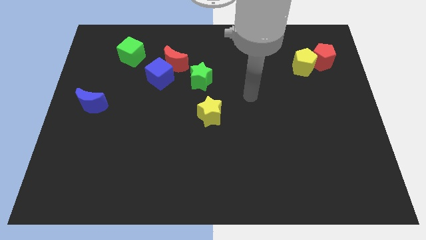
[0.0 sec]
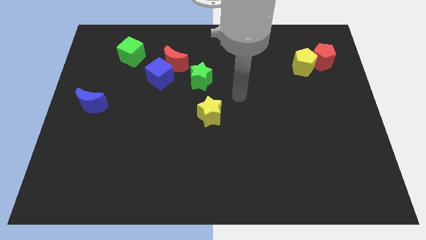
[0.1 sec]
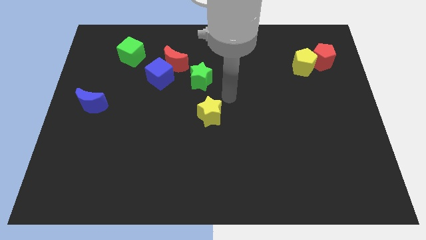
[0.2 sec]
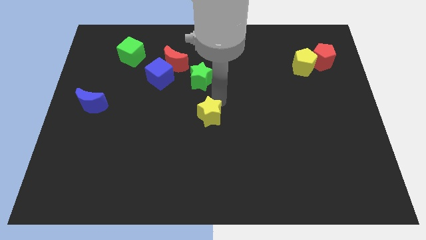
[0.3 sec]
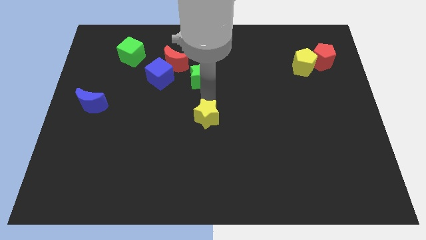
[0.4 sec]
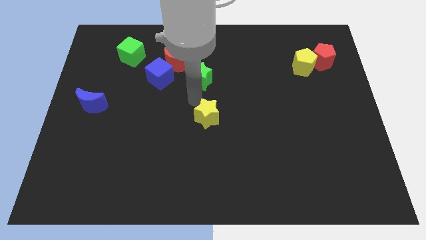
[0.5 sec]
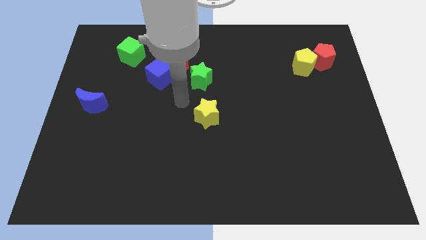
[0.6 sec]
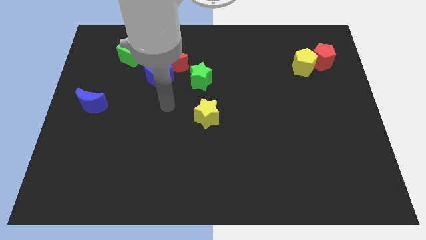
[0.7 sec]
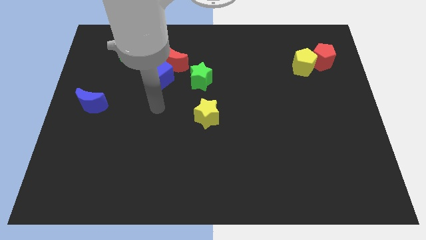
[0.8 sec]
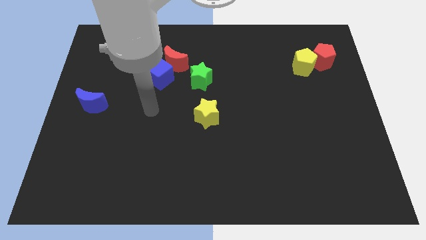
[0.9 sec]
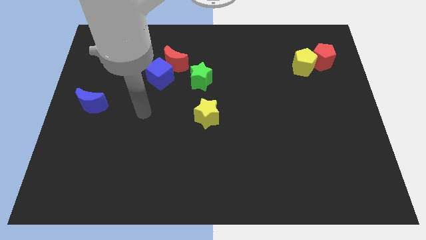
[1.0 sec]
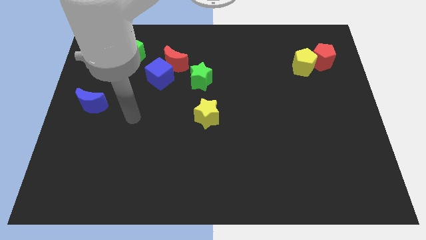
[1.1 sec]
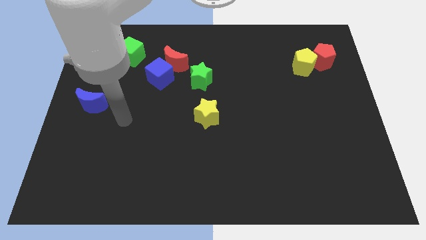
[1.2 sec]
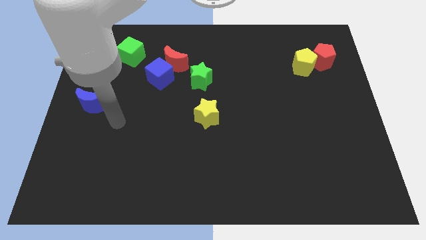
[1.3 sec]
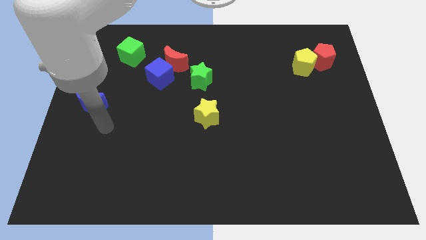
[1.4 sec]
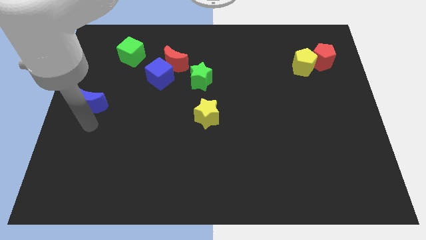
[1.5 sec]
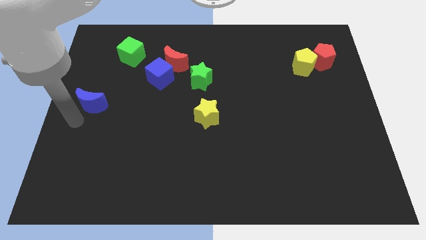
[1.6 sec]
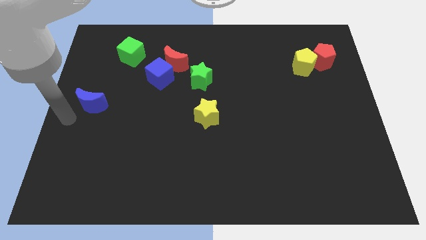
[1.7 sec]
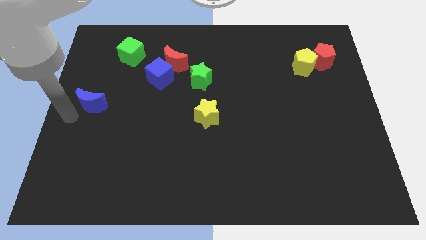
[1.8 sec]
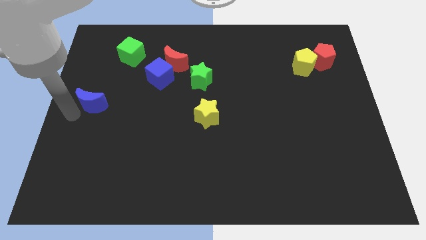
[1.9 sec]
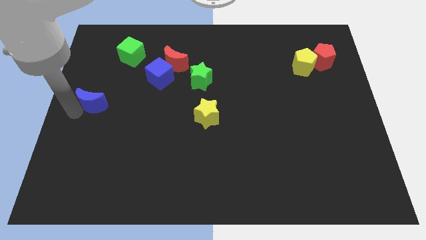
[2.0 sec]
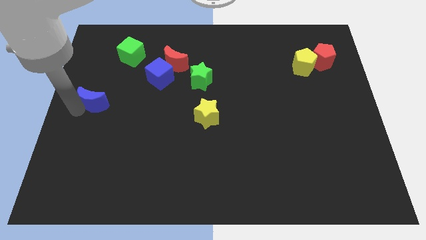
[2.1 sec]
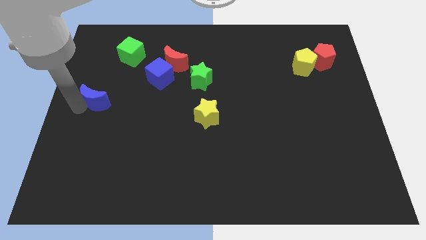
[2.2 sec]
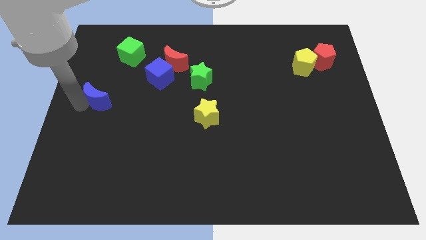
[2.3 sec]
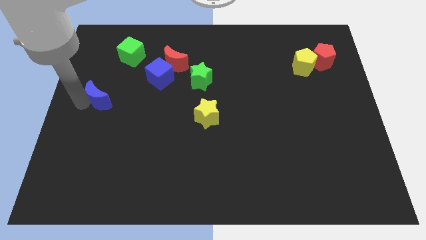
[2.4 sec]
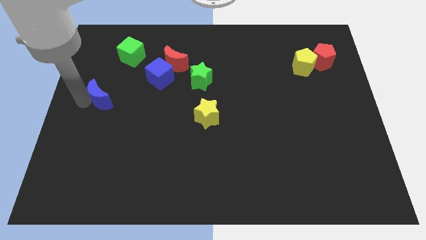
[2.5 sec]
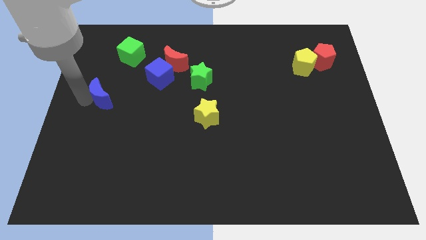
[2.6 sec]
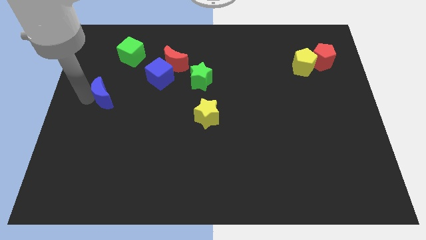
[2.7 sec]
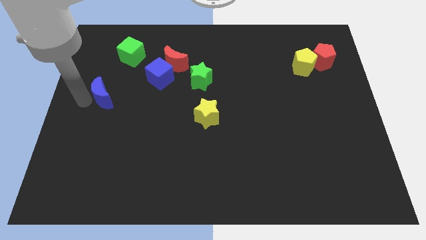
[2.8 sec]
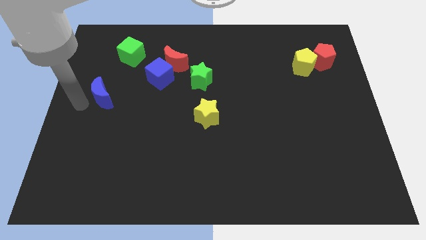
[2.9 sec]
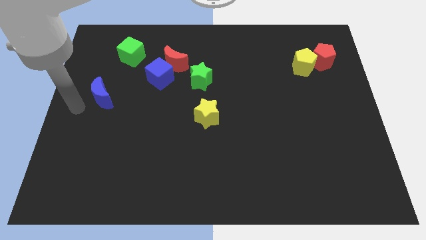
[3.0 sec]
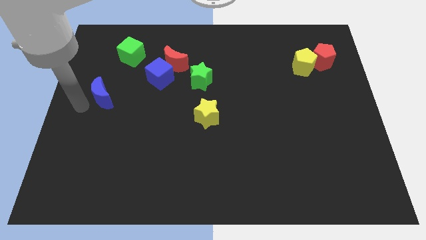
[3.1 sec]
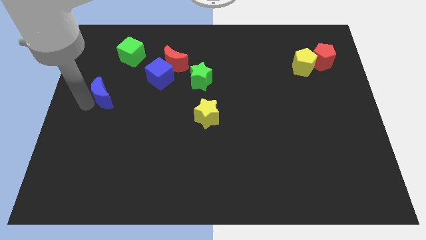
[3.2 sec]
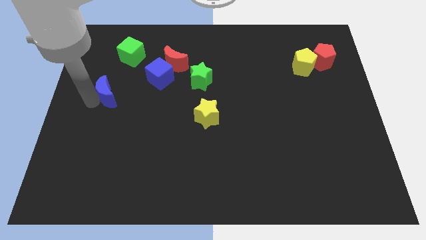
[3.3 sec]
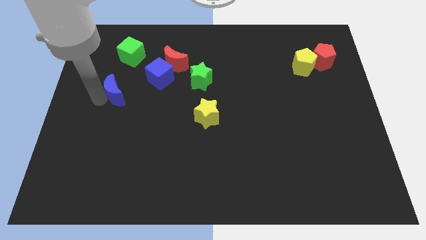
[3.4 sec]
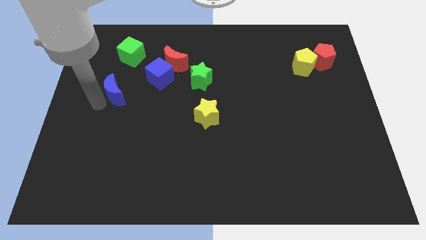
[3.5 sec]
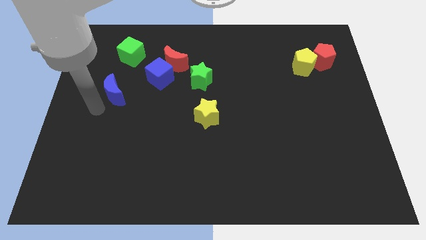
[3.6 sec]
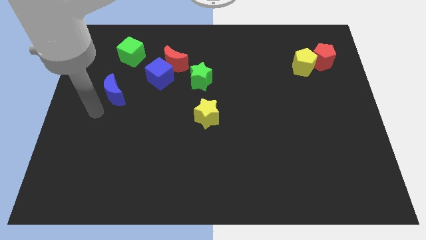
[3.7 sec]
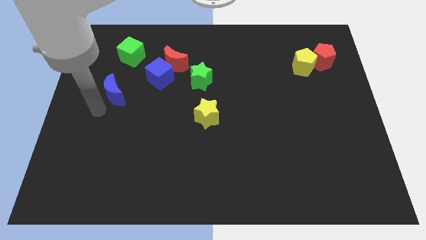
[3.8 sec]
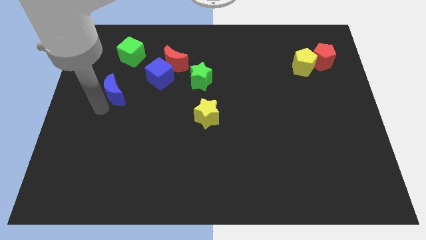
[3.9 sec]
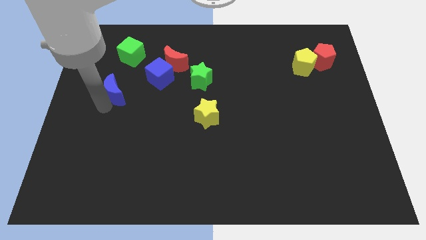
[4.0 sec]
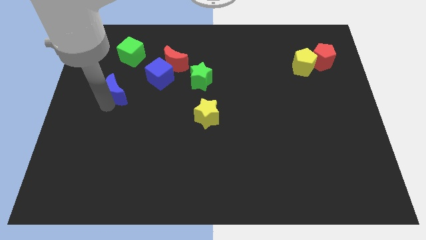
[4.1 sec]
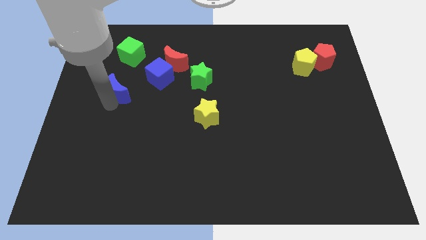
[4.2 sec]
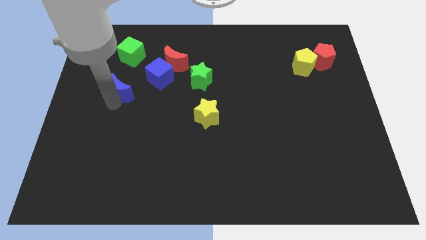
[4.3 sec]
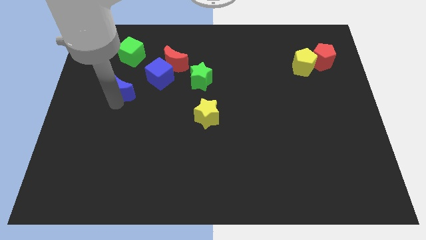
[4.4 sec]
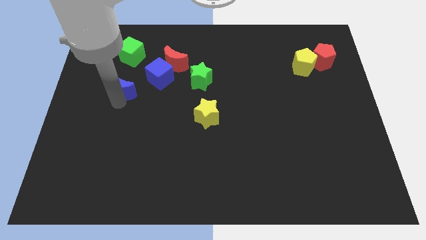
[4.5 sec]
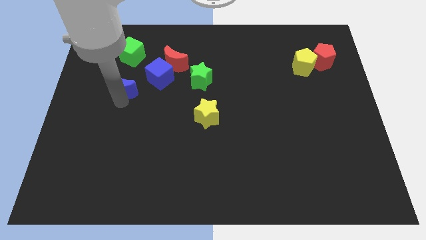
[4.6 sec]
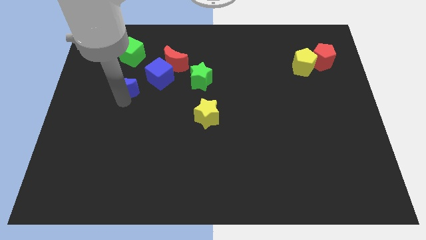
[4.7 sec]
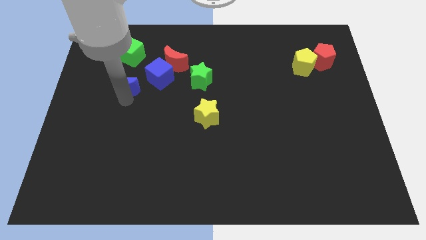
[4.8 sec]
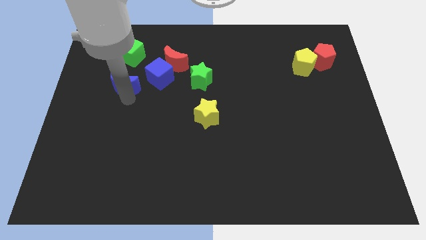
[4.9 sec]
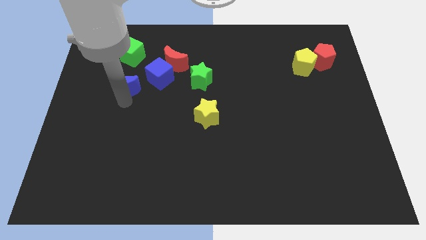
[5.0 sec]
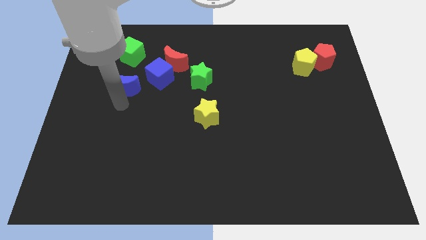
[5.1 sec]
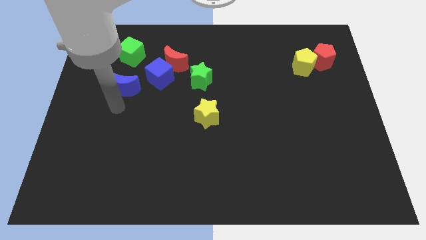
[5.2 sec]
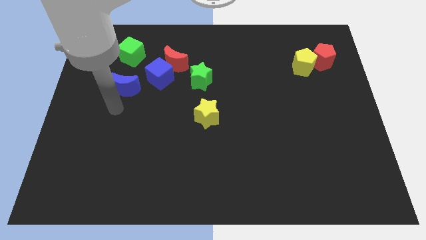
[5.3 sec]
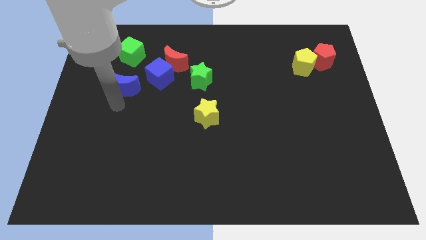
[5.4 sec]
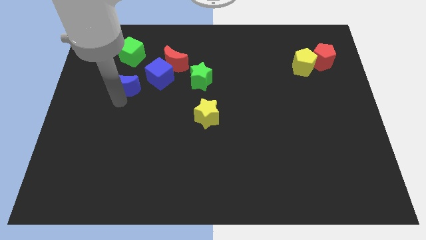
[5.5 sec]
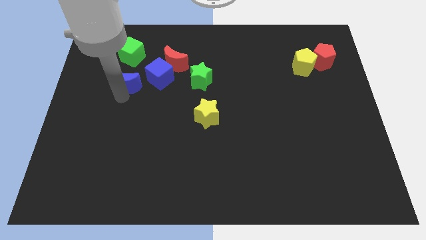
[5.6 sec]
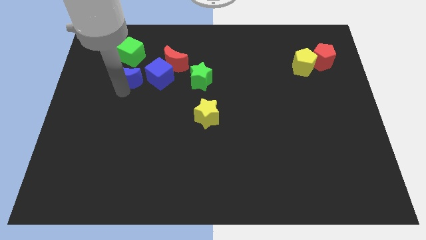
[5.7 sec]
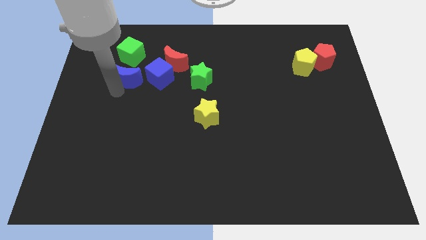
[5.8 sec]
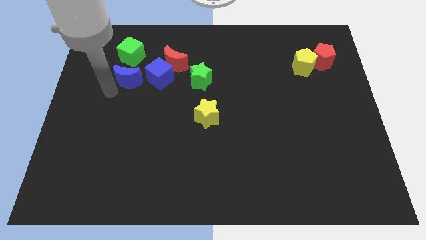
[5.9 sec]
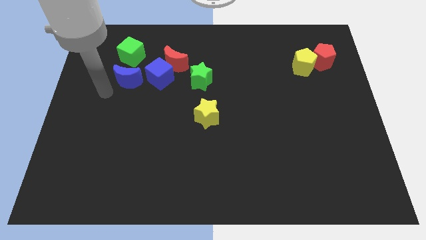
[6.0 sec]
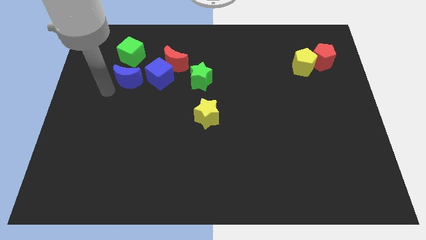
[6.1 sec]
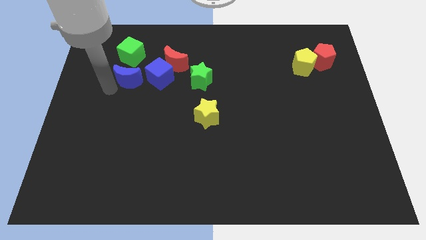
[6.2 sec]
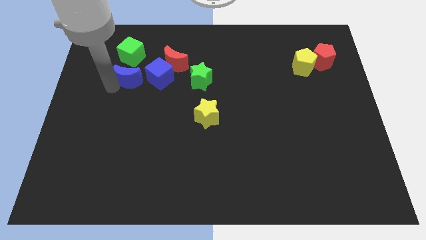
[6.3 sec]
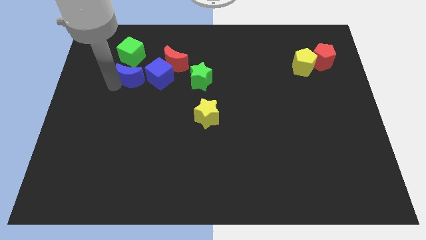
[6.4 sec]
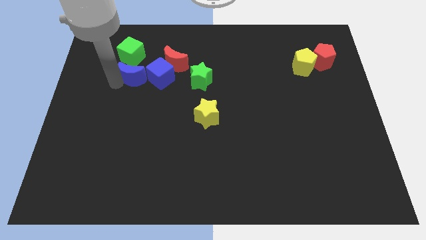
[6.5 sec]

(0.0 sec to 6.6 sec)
move the blue moon diagonally down and to the right of the green cube

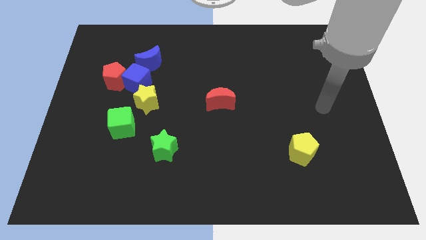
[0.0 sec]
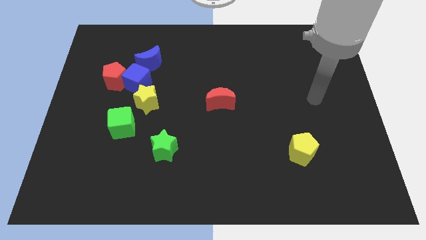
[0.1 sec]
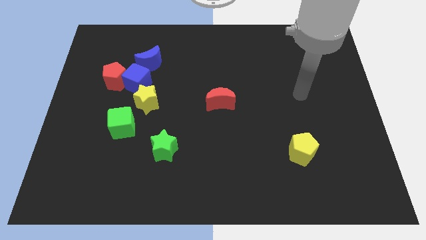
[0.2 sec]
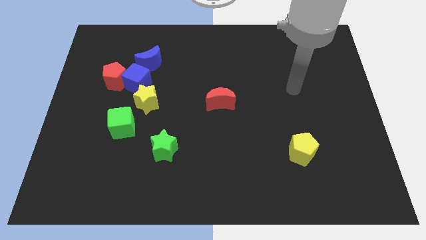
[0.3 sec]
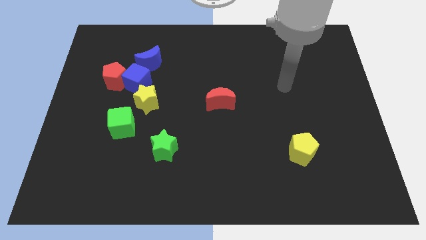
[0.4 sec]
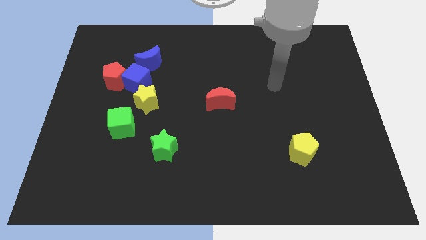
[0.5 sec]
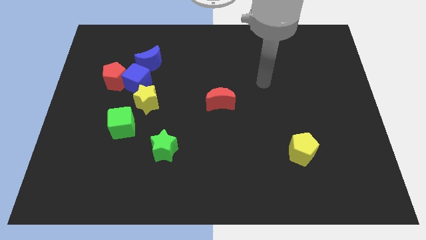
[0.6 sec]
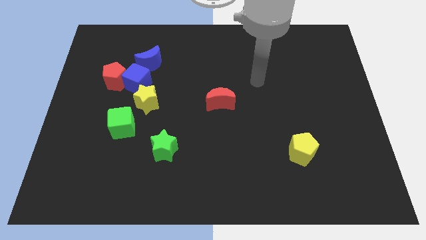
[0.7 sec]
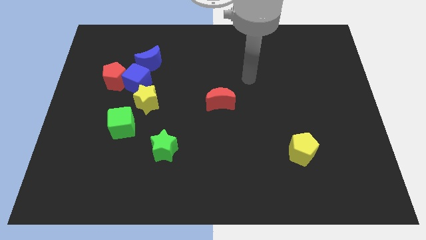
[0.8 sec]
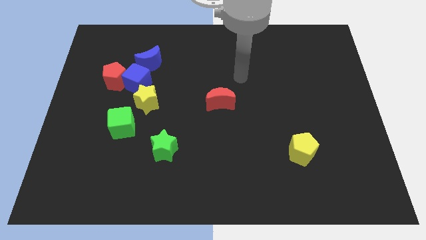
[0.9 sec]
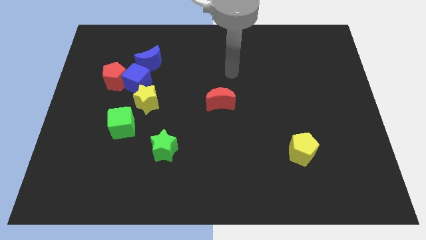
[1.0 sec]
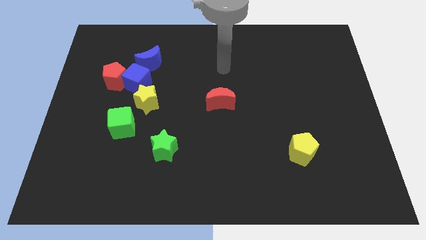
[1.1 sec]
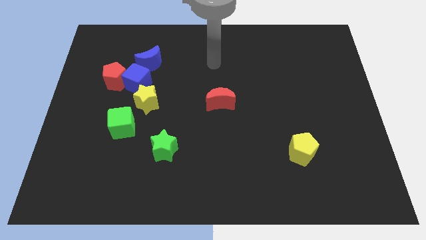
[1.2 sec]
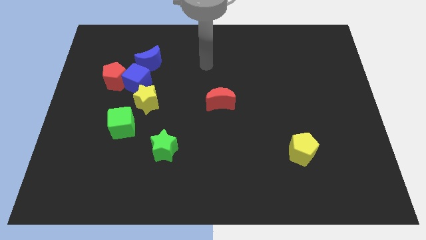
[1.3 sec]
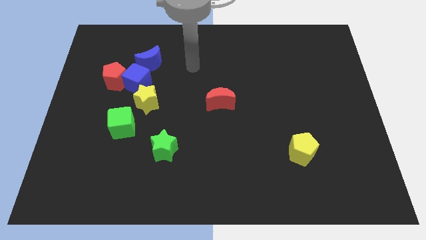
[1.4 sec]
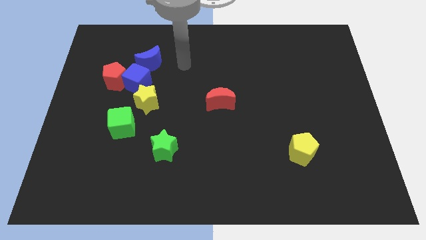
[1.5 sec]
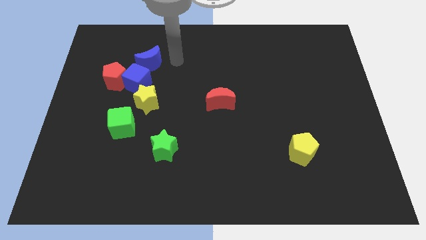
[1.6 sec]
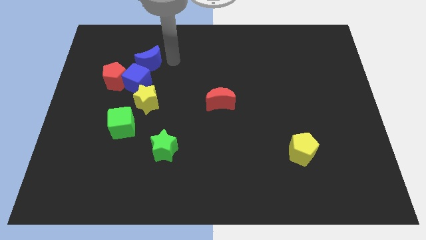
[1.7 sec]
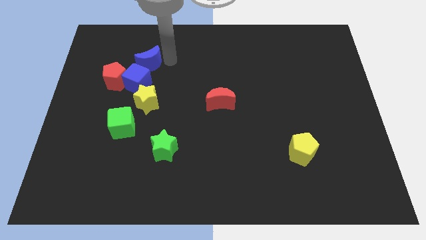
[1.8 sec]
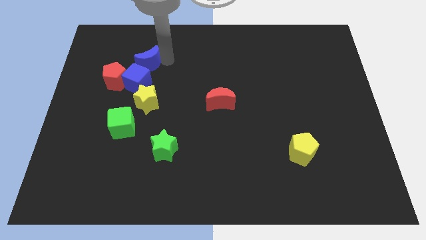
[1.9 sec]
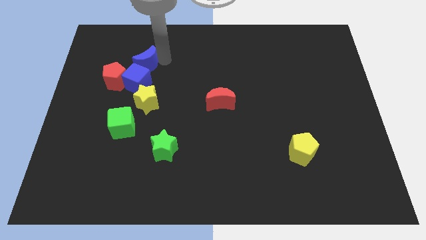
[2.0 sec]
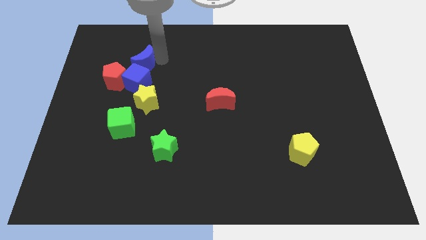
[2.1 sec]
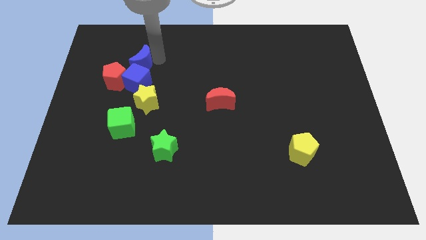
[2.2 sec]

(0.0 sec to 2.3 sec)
push the blue moon to the top left side of the blue cube
